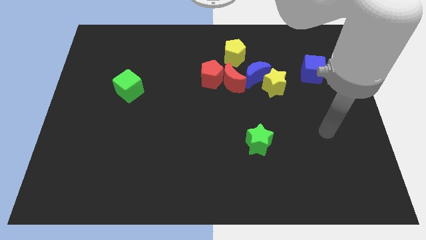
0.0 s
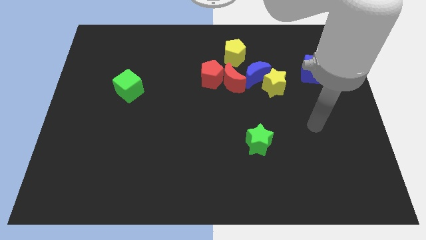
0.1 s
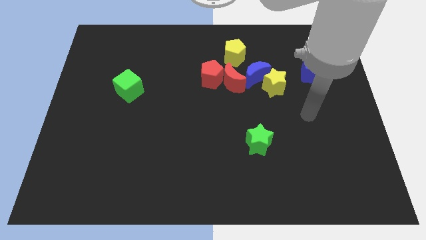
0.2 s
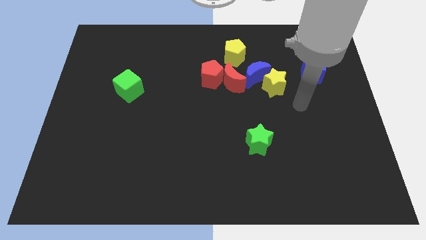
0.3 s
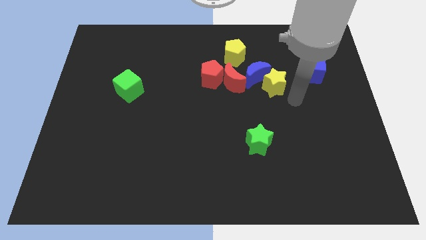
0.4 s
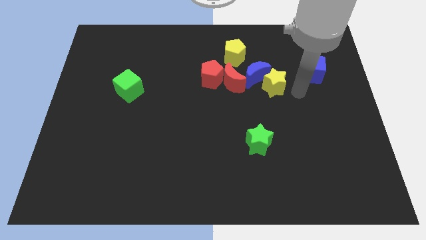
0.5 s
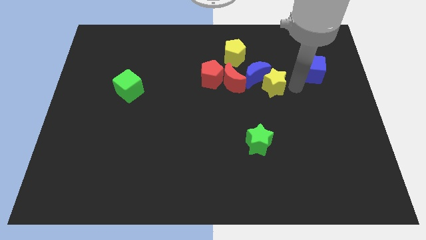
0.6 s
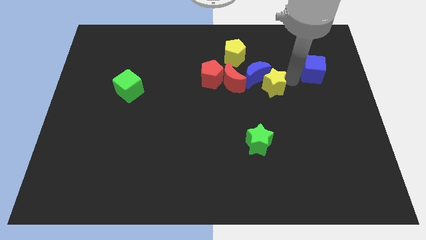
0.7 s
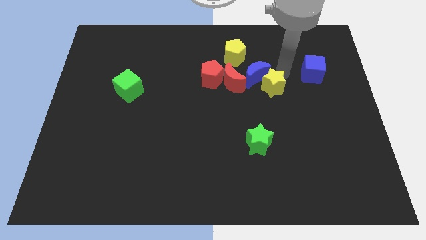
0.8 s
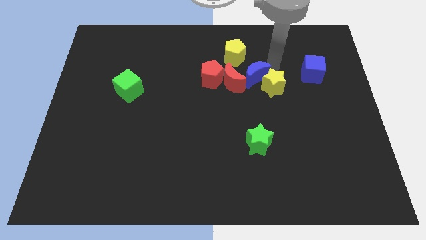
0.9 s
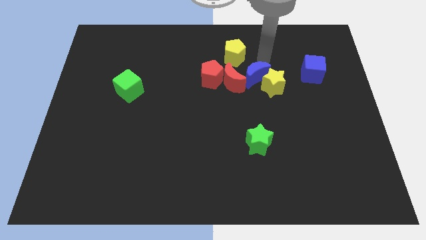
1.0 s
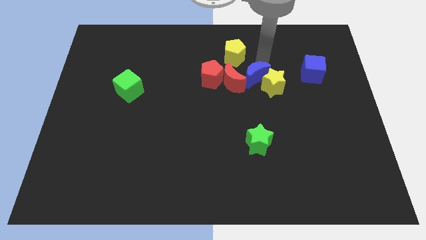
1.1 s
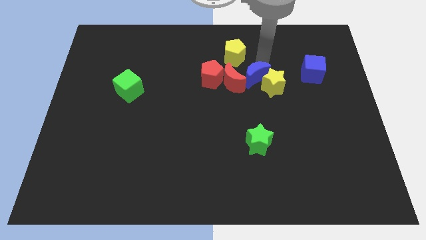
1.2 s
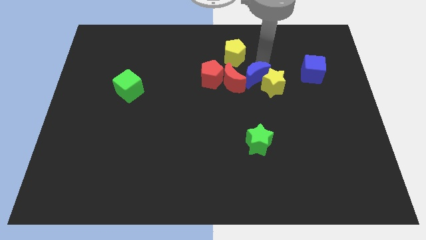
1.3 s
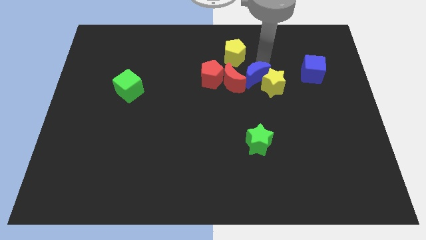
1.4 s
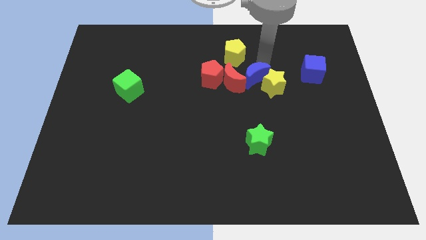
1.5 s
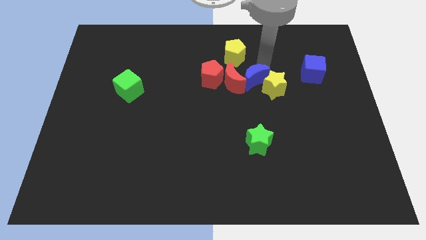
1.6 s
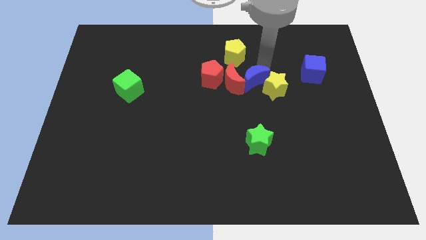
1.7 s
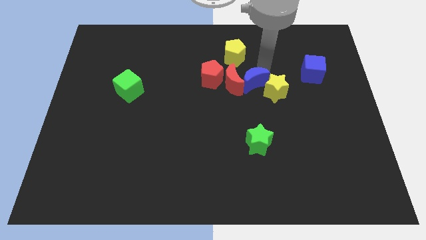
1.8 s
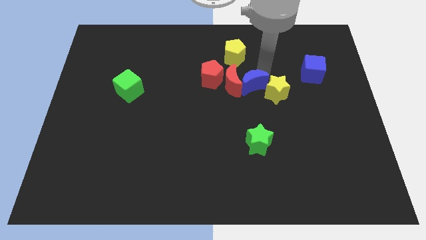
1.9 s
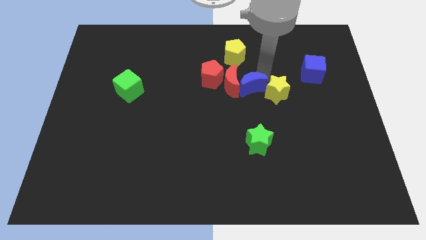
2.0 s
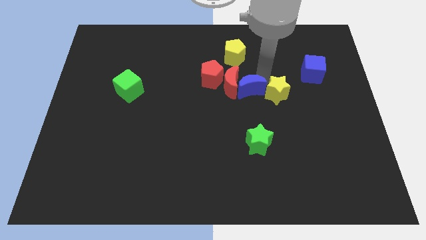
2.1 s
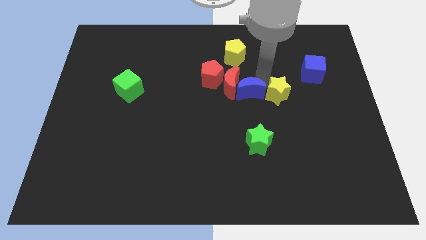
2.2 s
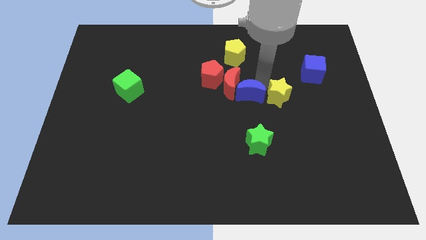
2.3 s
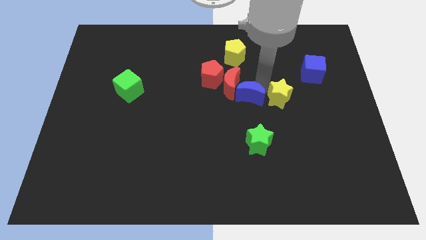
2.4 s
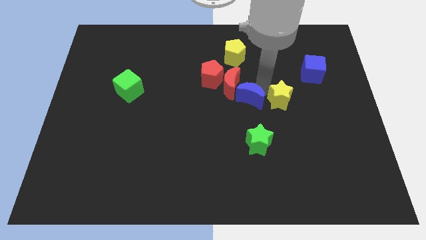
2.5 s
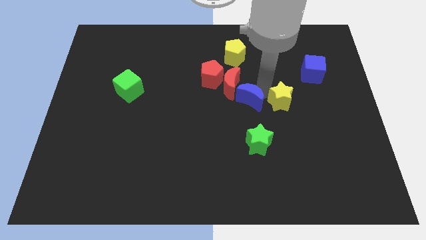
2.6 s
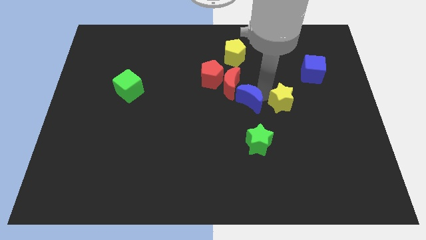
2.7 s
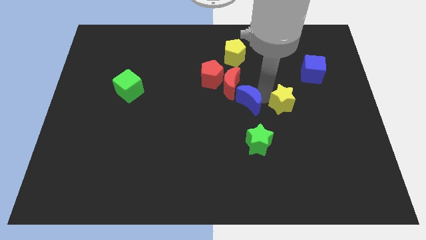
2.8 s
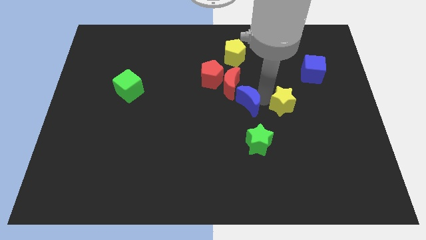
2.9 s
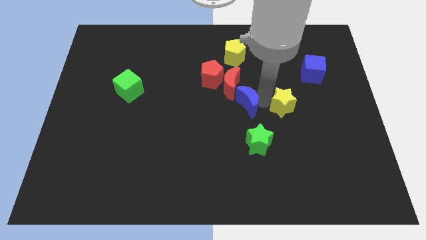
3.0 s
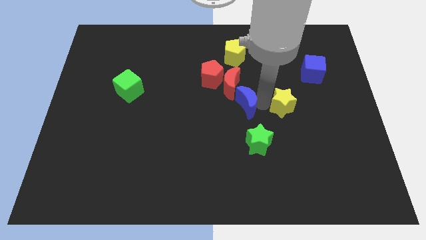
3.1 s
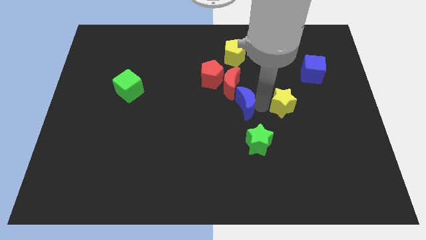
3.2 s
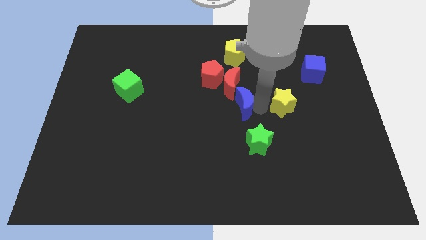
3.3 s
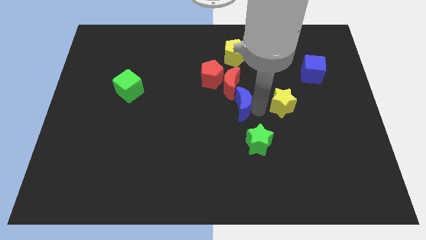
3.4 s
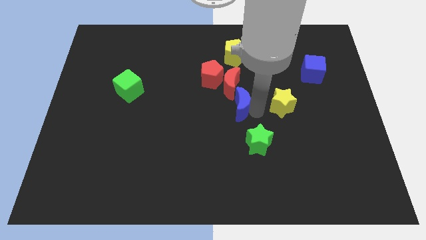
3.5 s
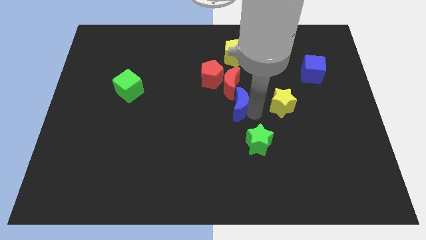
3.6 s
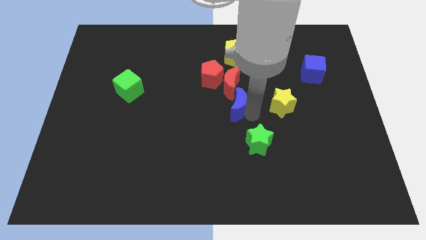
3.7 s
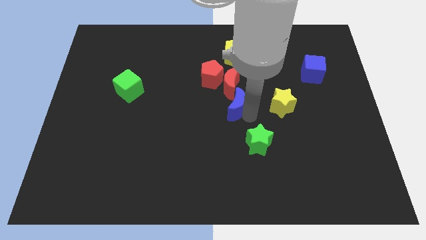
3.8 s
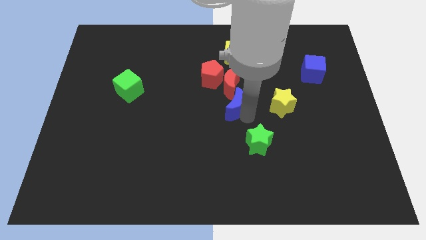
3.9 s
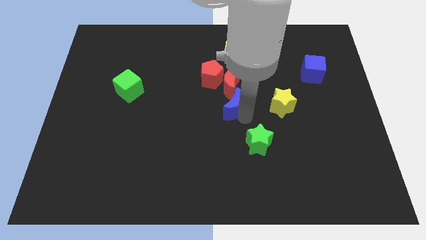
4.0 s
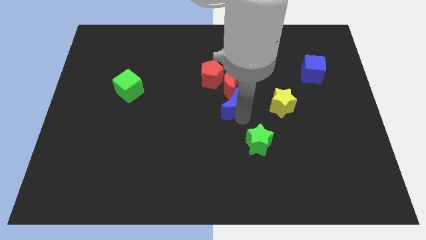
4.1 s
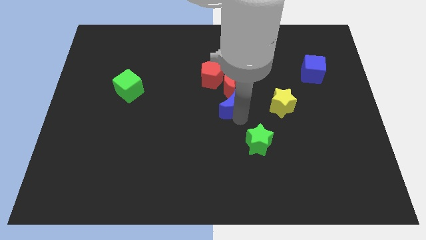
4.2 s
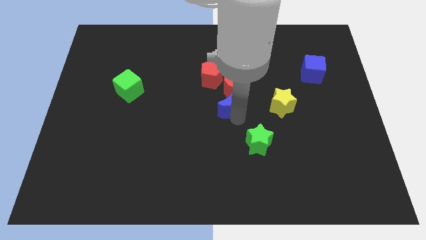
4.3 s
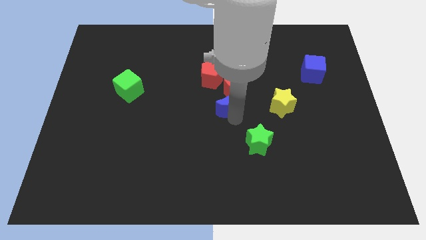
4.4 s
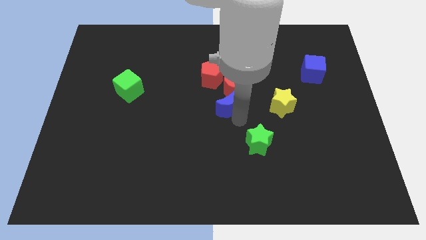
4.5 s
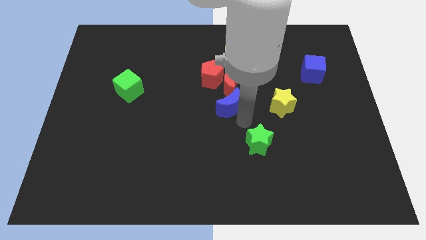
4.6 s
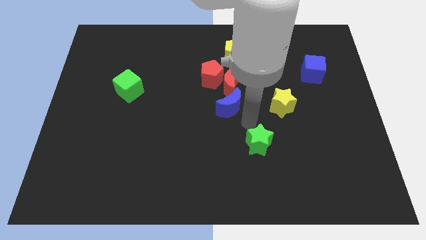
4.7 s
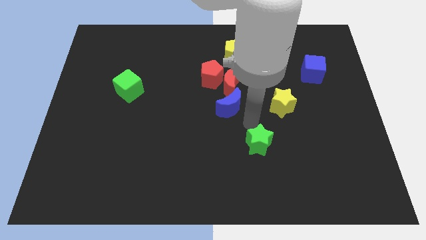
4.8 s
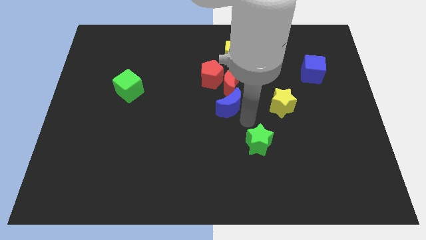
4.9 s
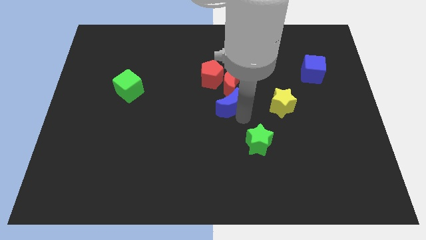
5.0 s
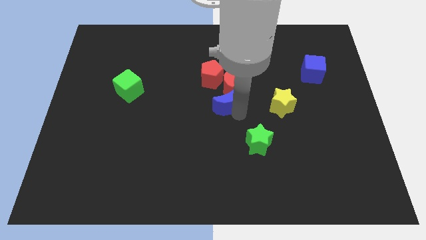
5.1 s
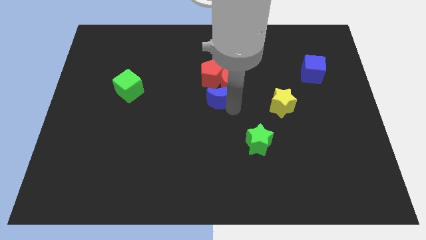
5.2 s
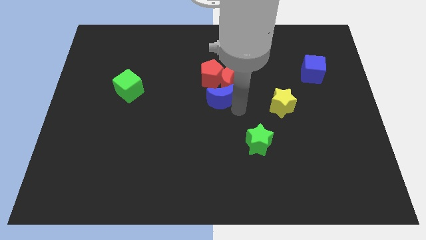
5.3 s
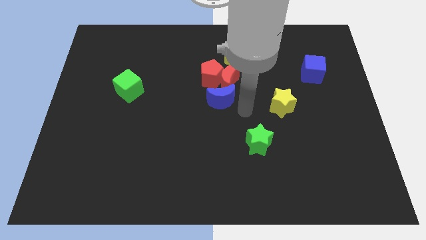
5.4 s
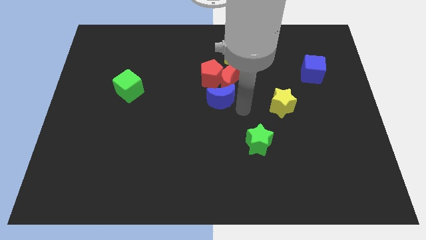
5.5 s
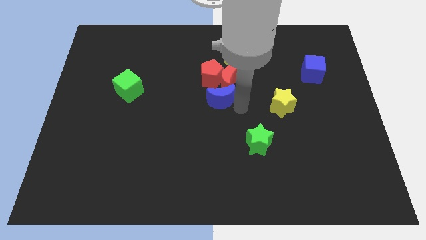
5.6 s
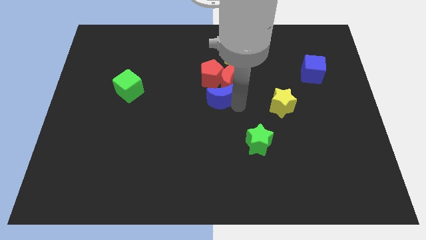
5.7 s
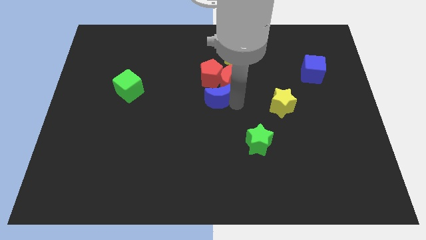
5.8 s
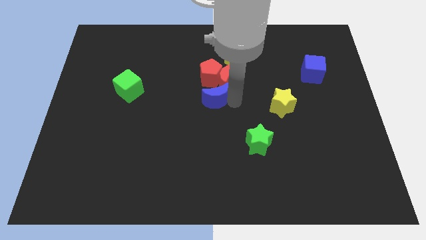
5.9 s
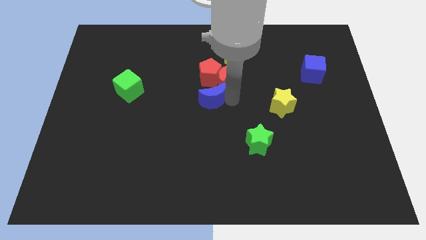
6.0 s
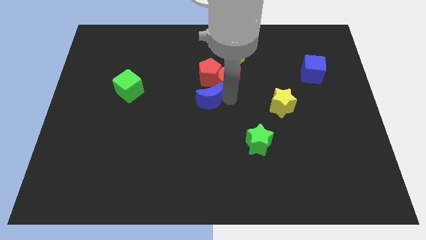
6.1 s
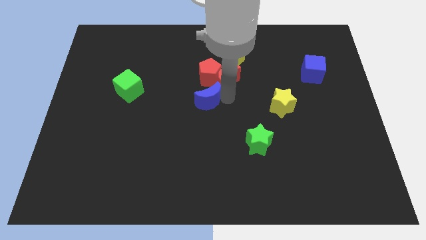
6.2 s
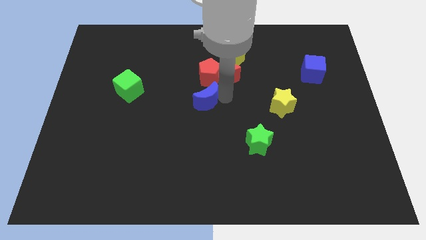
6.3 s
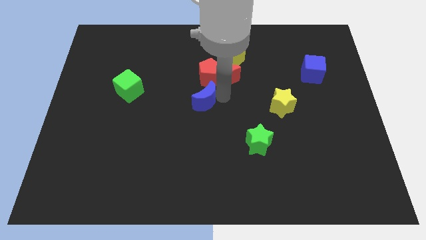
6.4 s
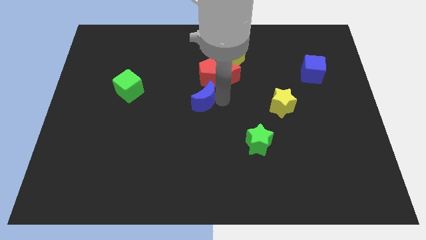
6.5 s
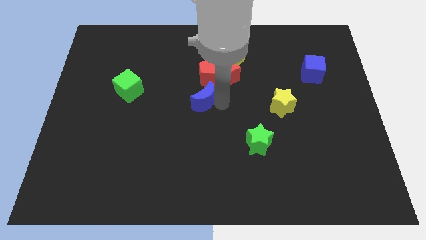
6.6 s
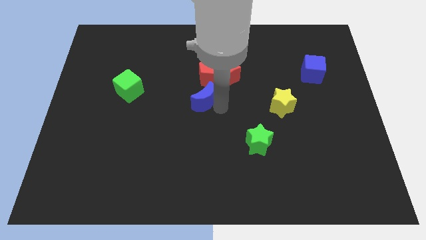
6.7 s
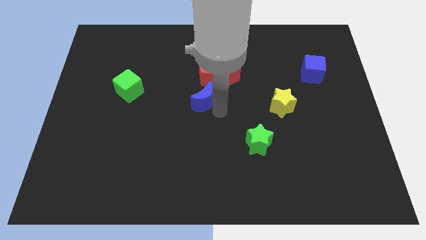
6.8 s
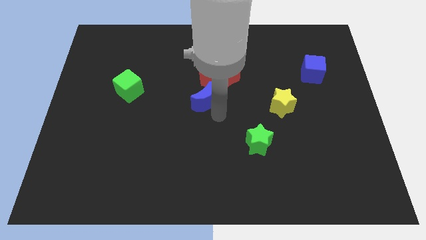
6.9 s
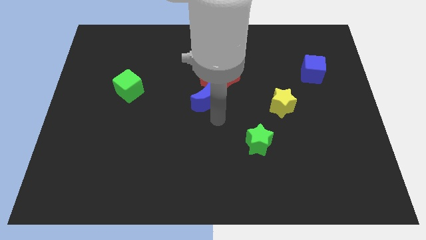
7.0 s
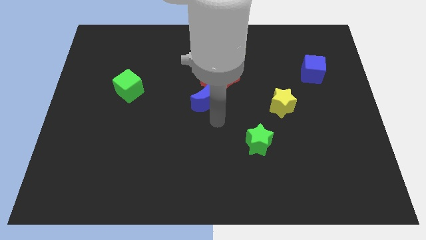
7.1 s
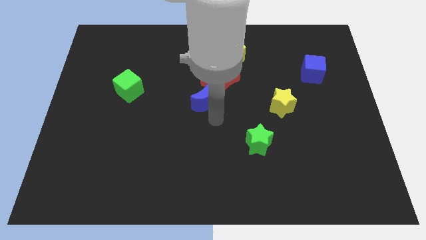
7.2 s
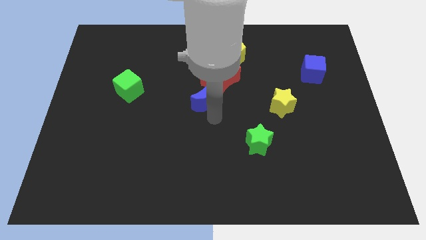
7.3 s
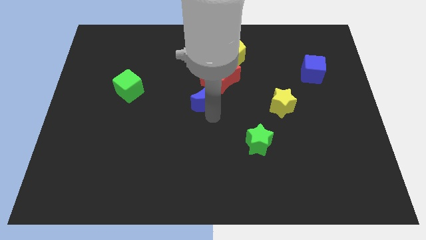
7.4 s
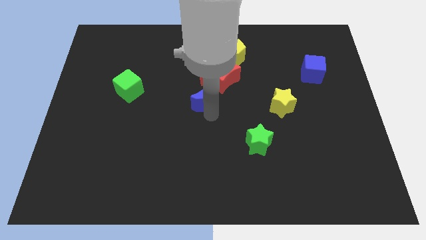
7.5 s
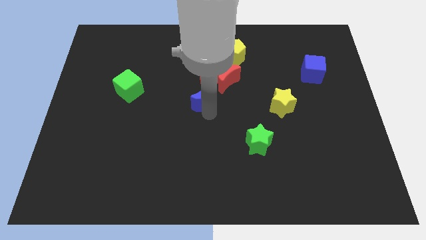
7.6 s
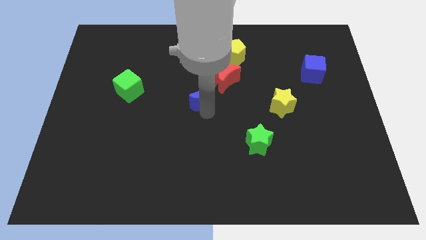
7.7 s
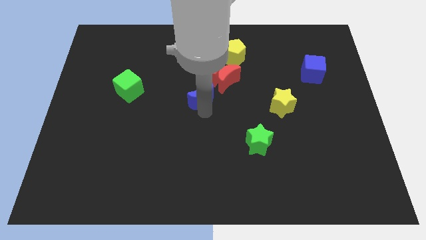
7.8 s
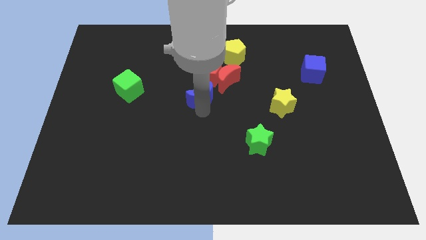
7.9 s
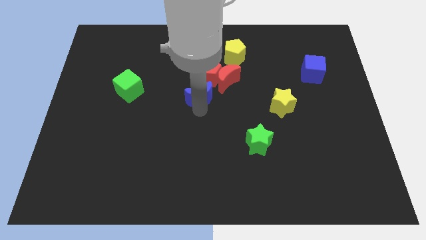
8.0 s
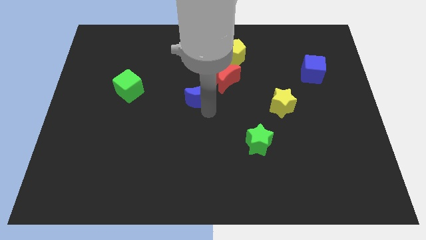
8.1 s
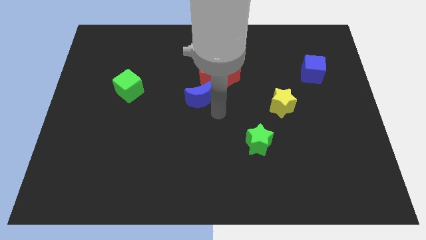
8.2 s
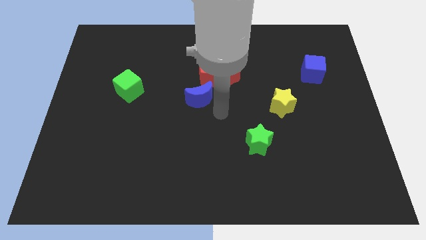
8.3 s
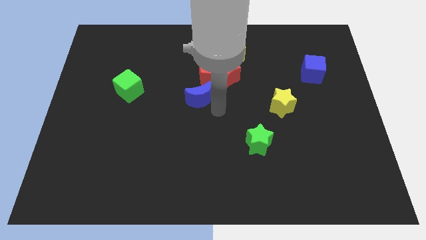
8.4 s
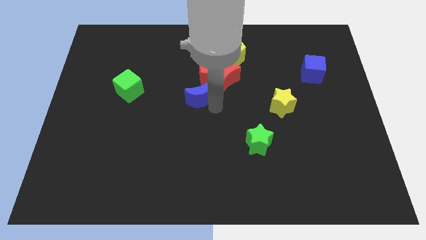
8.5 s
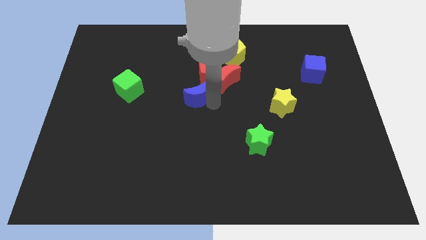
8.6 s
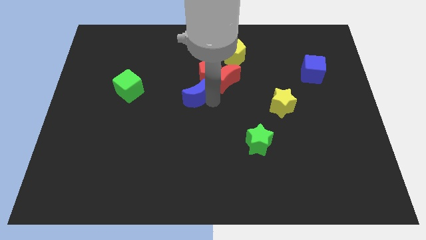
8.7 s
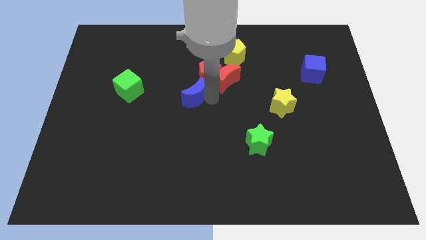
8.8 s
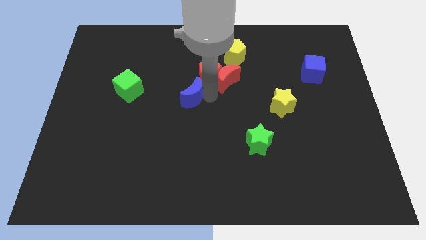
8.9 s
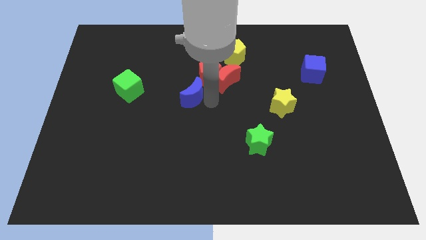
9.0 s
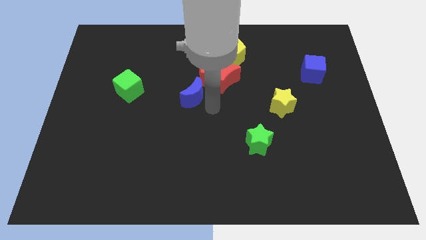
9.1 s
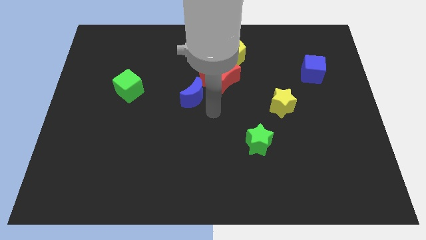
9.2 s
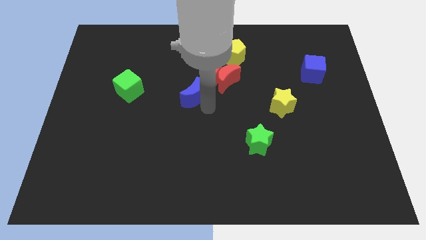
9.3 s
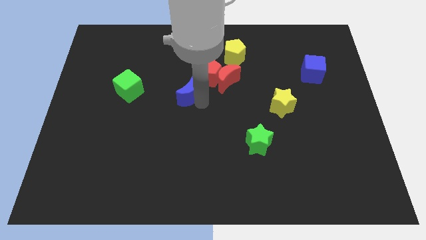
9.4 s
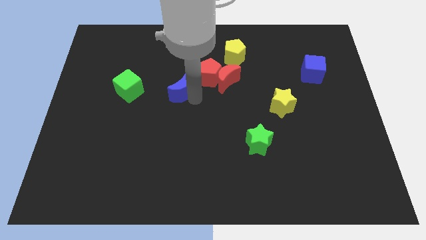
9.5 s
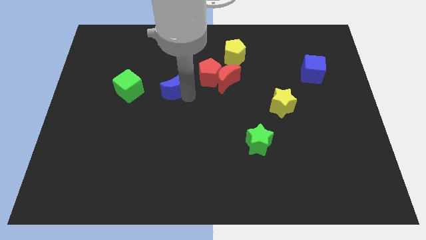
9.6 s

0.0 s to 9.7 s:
put the blue moon just left of the red pentagon
